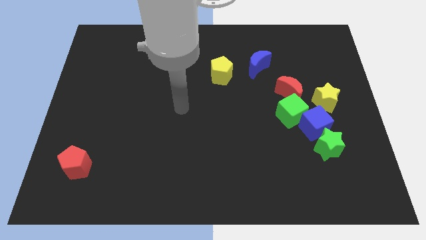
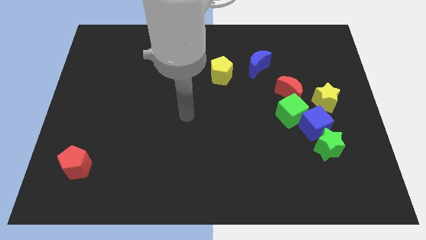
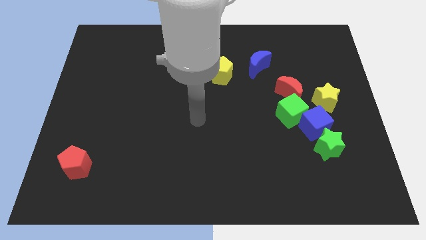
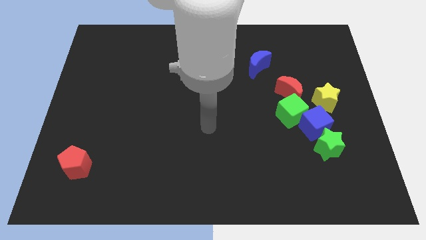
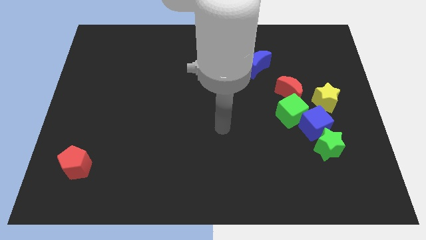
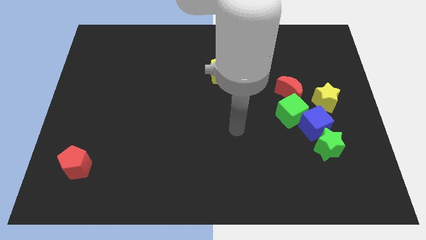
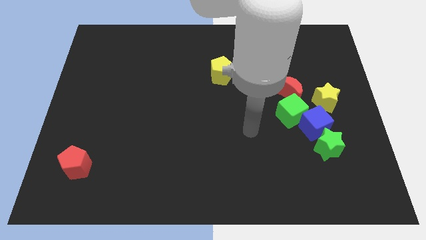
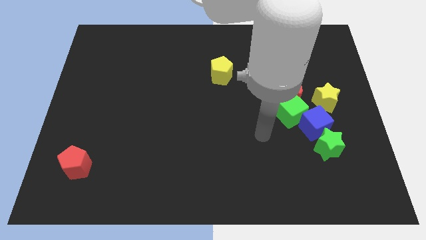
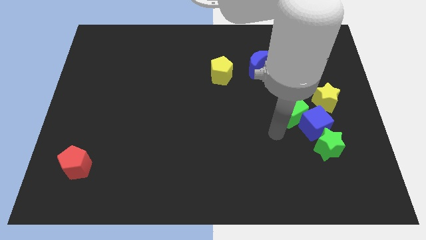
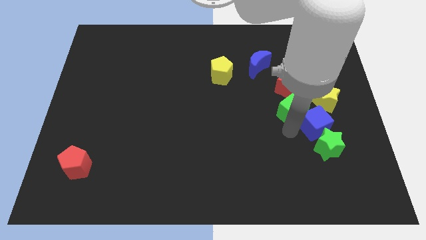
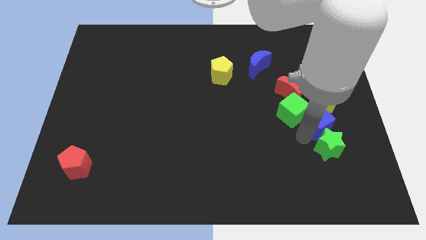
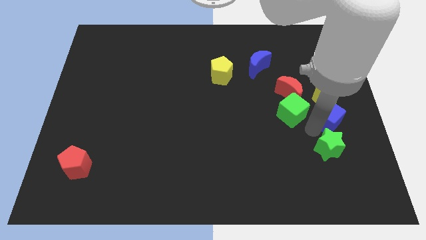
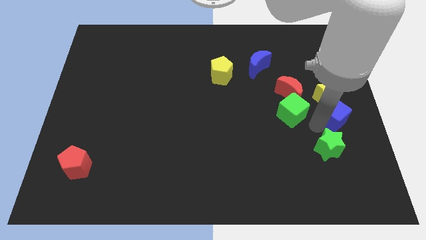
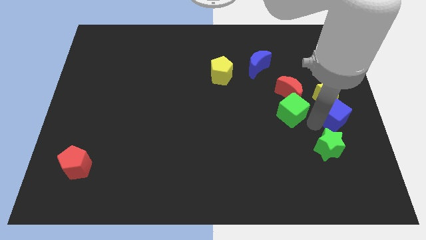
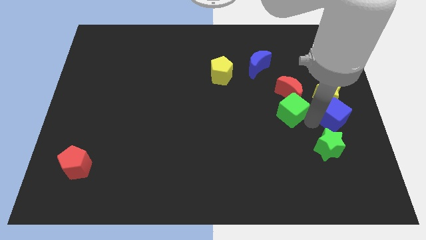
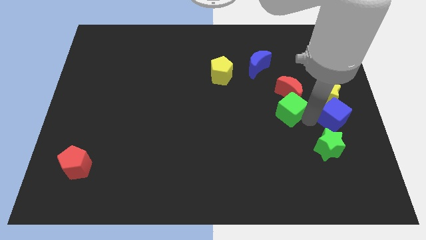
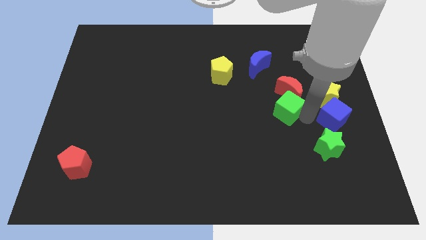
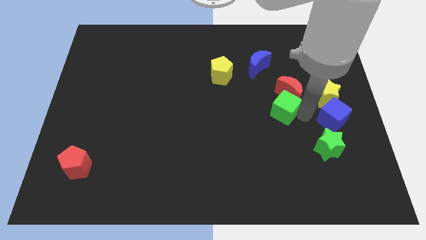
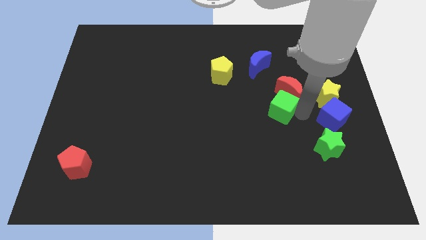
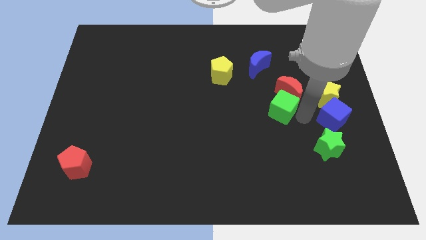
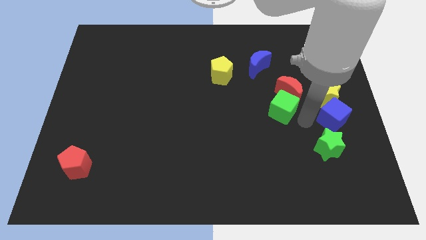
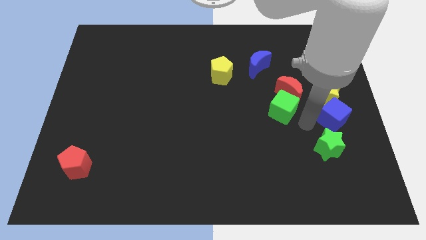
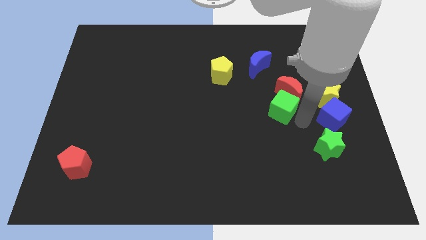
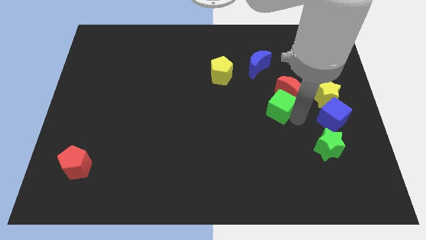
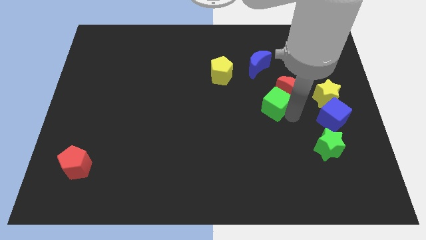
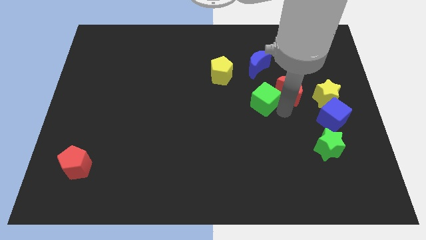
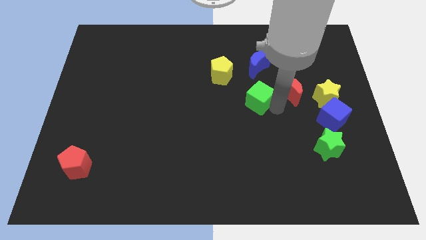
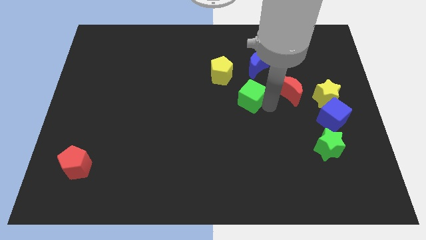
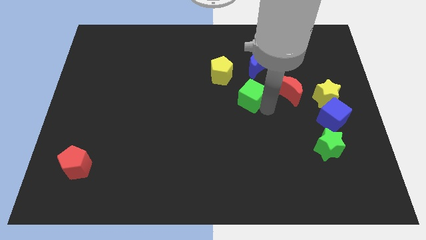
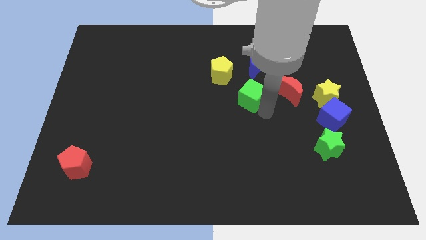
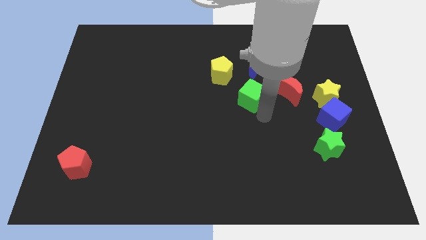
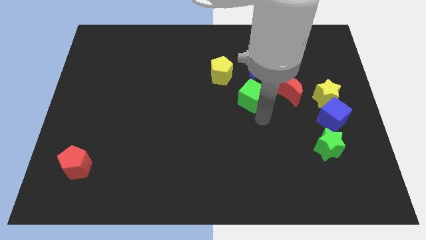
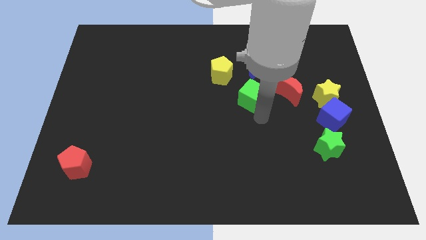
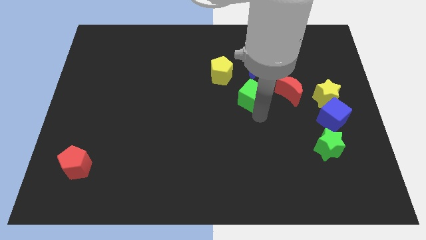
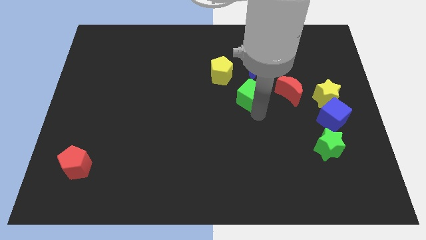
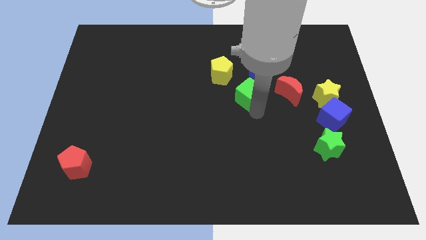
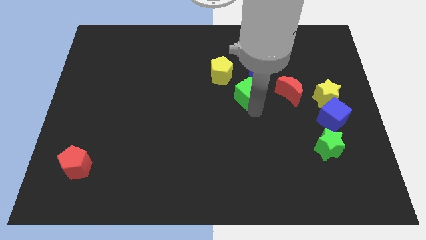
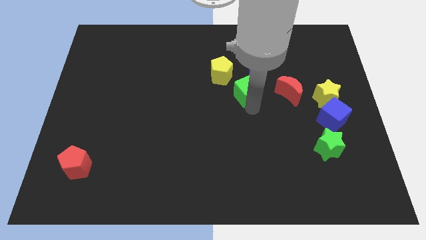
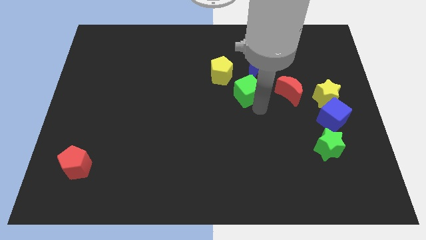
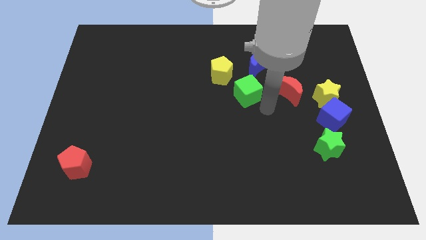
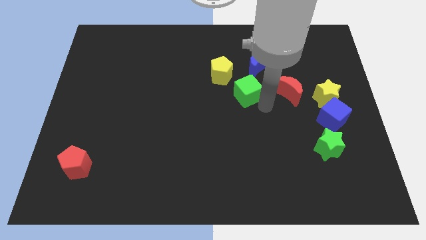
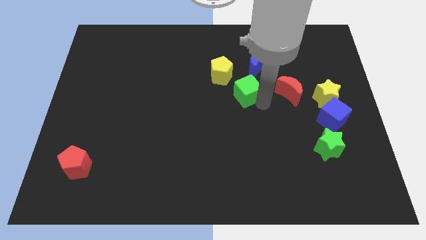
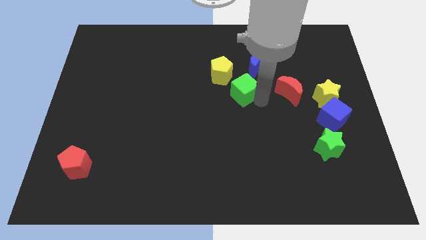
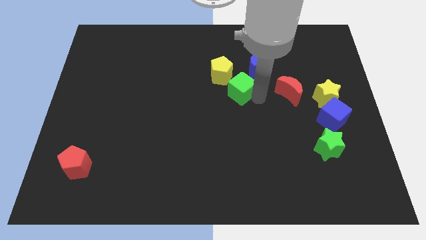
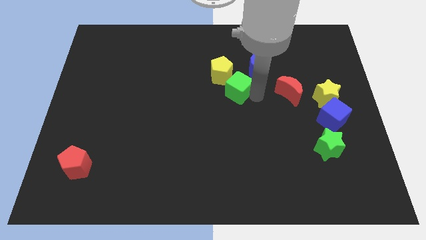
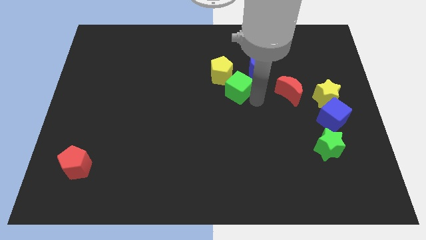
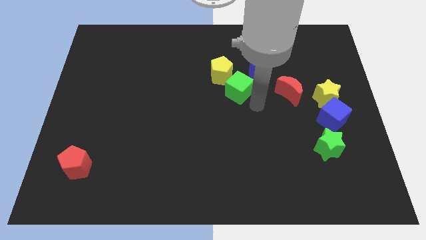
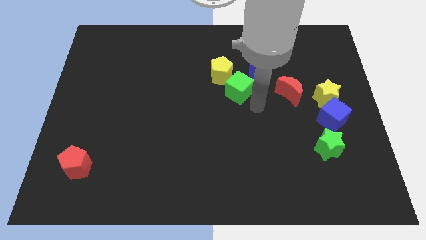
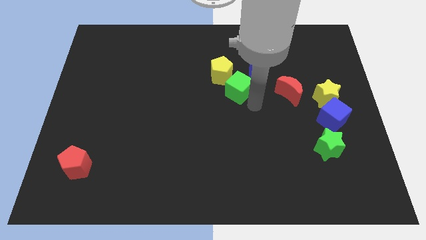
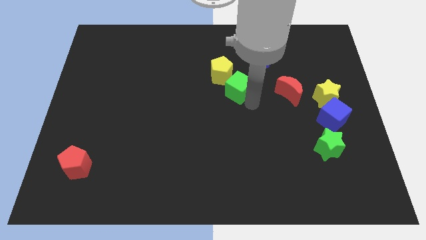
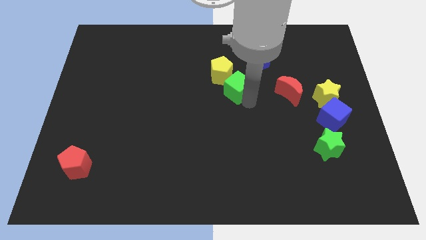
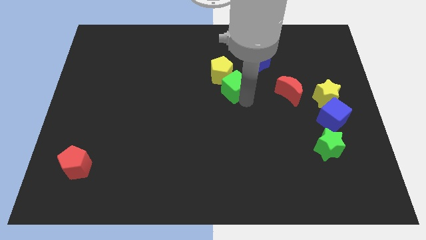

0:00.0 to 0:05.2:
put the green cube close to the yellow pentagon

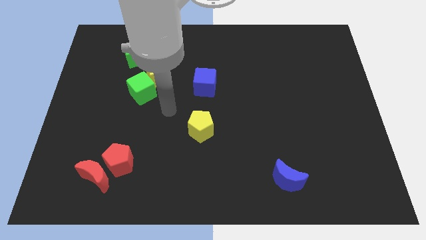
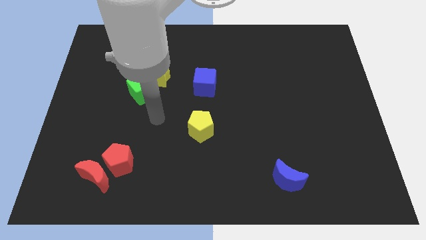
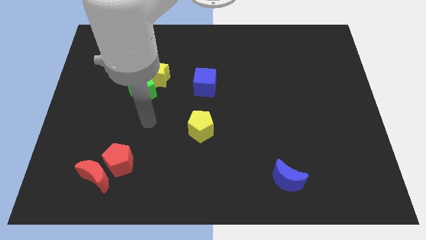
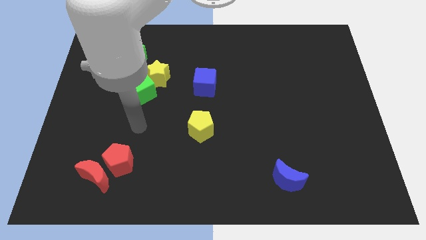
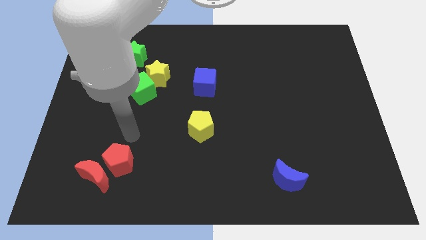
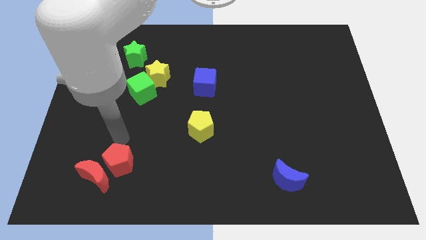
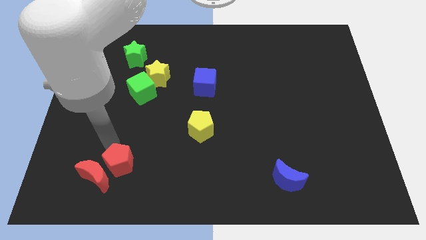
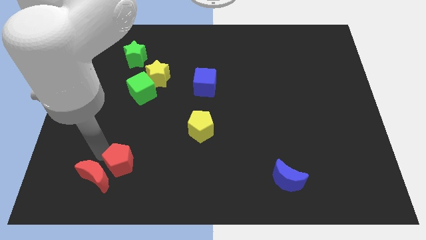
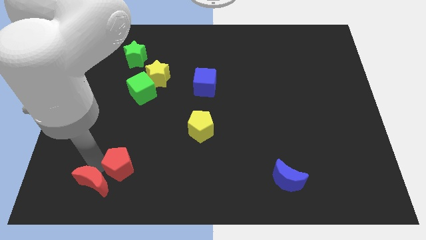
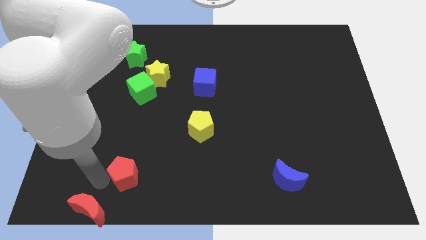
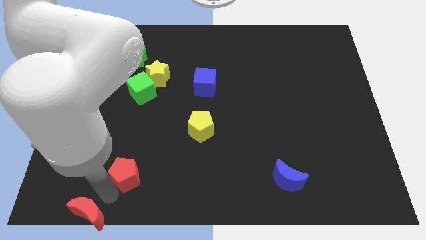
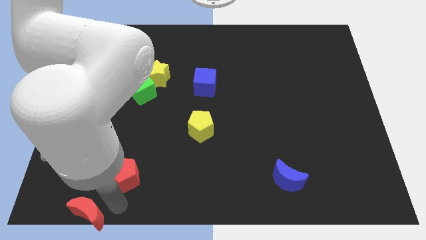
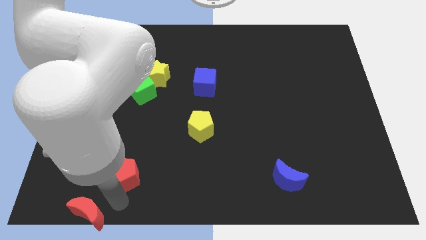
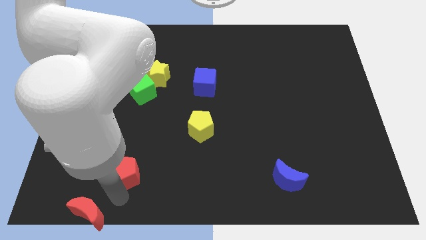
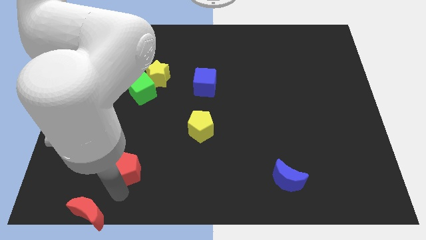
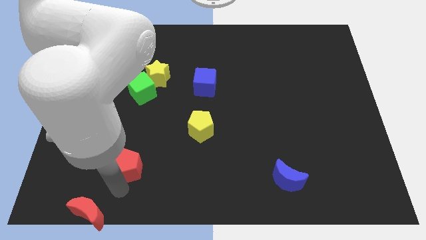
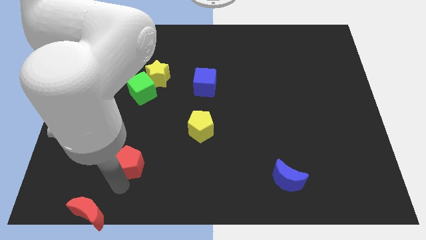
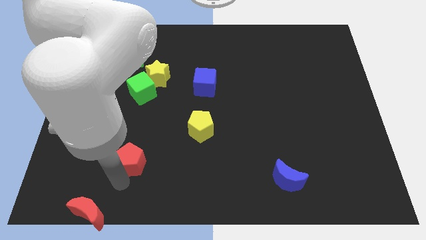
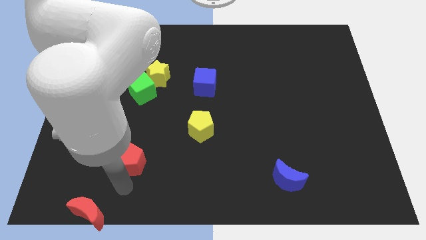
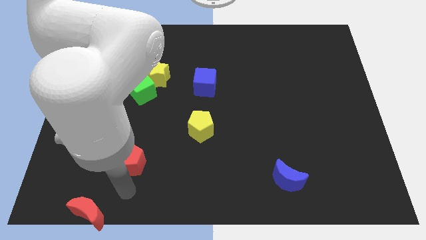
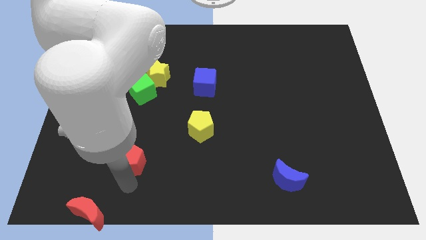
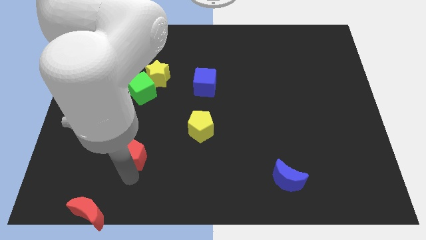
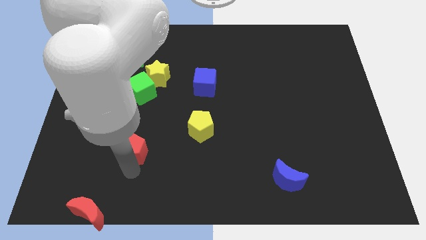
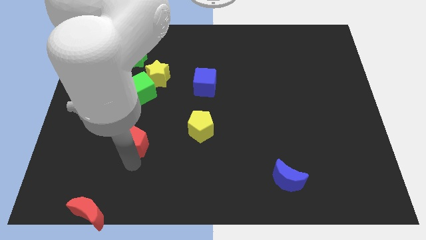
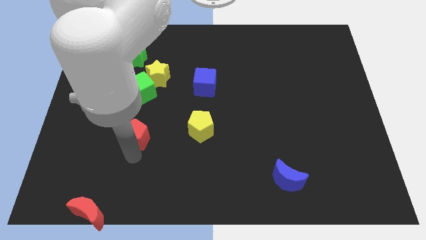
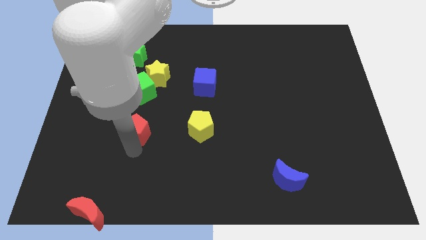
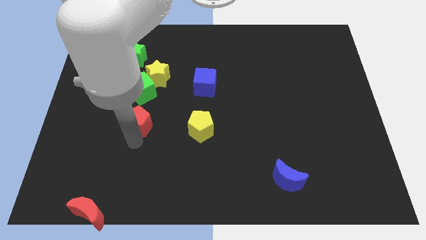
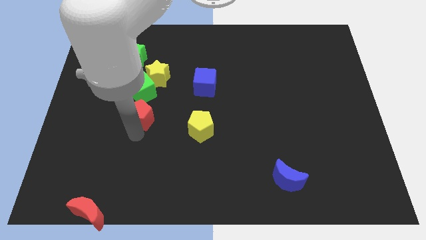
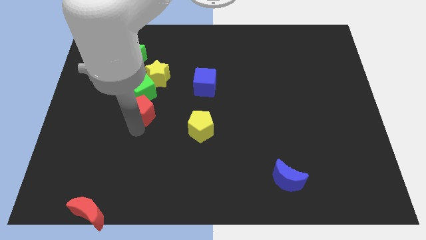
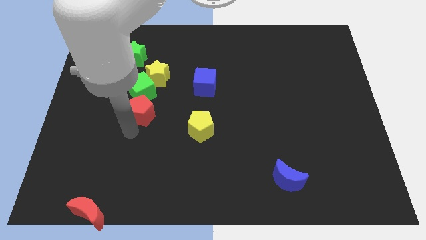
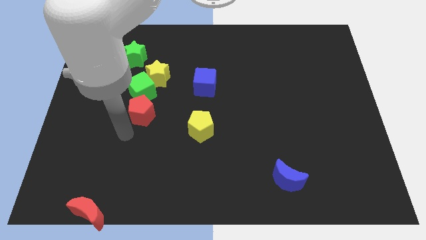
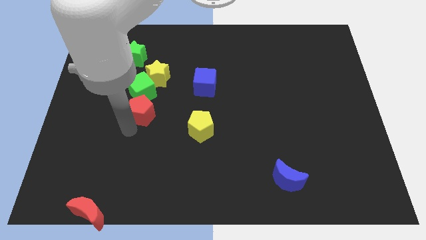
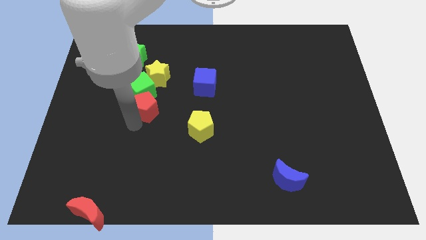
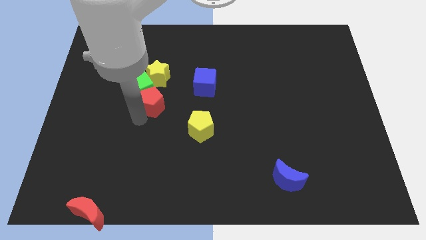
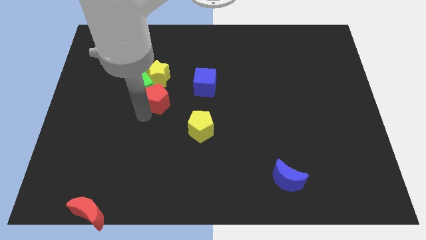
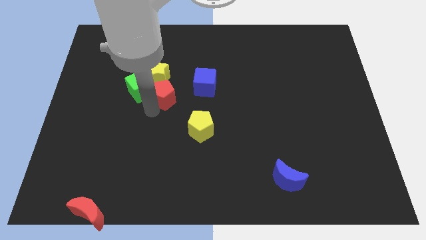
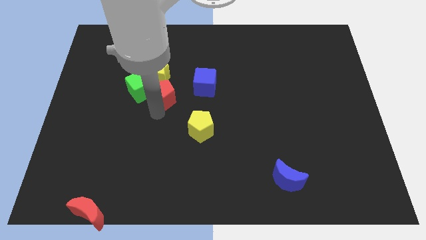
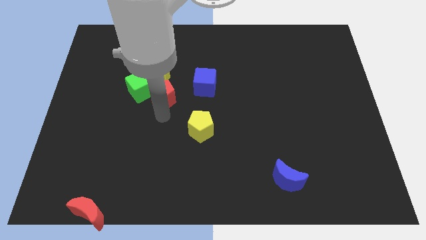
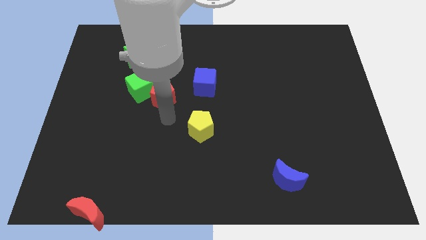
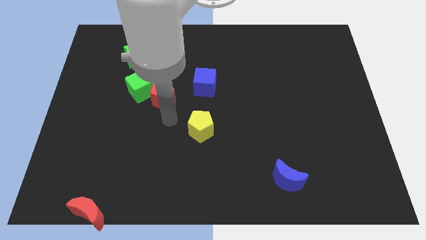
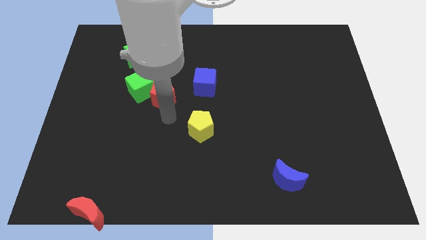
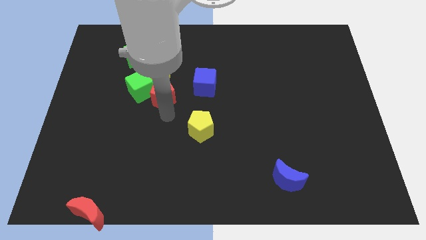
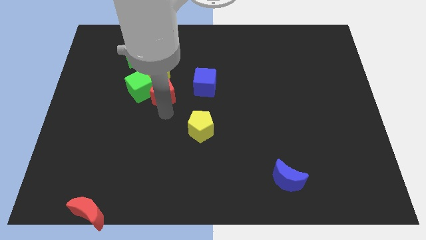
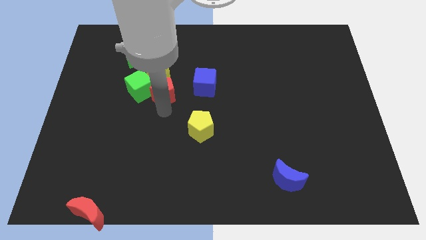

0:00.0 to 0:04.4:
push the red pentagon to the yellow star
